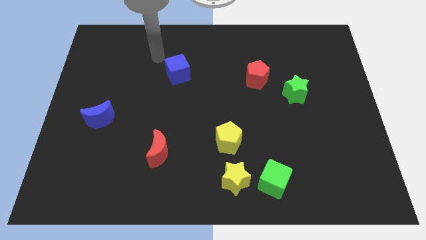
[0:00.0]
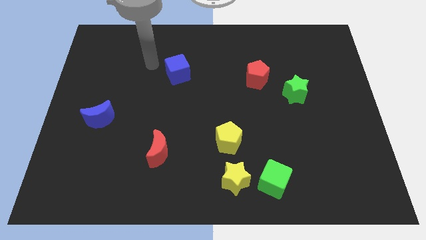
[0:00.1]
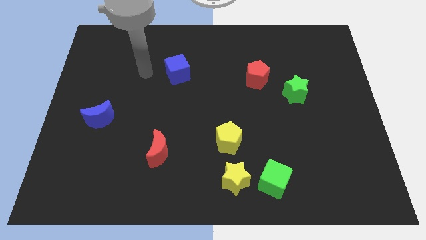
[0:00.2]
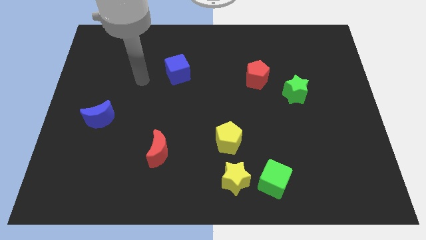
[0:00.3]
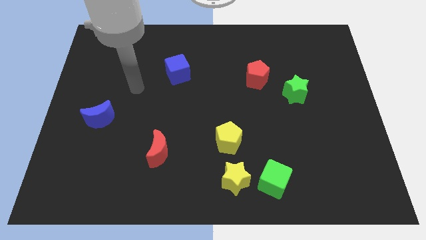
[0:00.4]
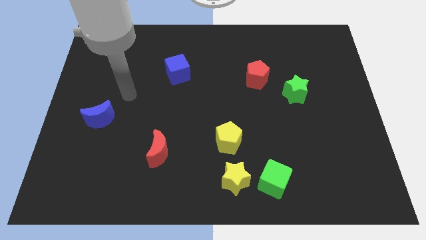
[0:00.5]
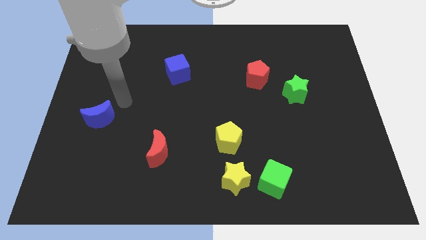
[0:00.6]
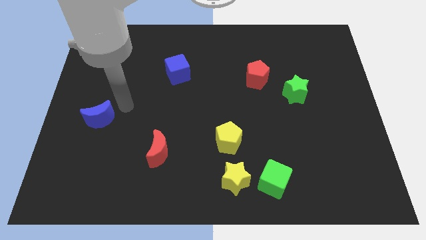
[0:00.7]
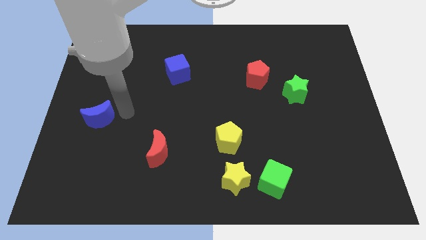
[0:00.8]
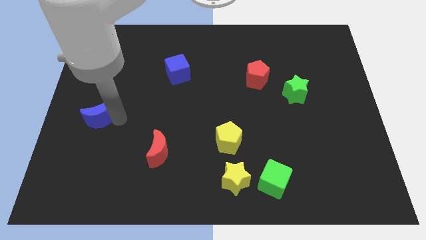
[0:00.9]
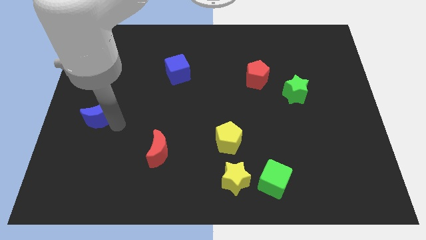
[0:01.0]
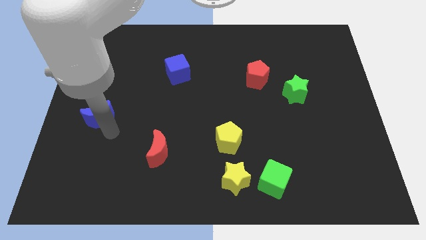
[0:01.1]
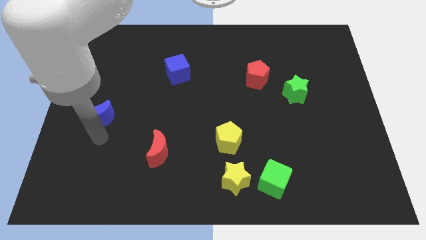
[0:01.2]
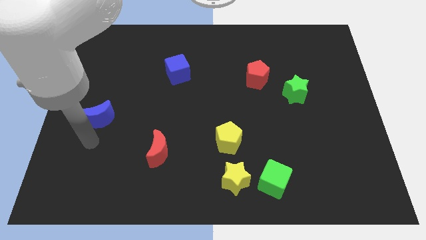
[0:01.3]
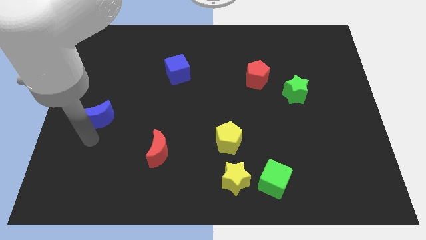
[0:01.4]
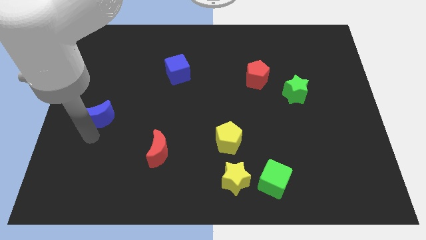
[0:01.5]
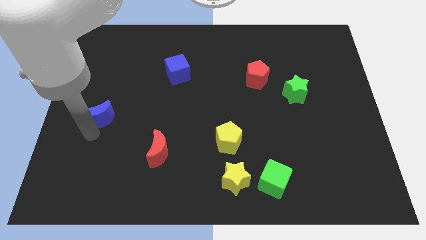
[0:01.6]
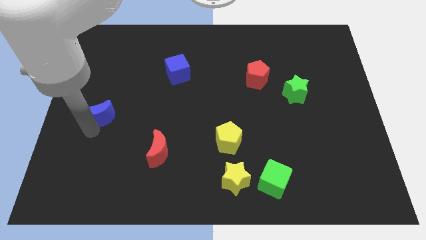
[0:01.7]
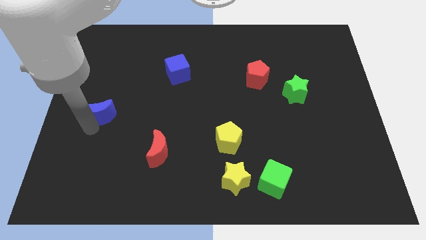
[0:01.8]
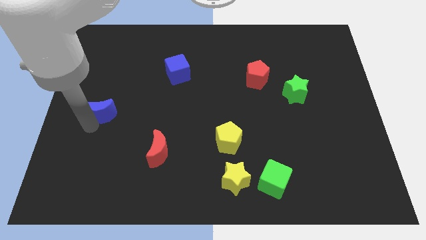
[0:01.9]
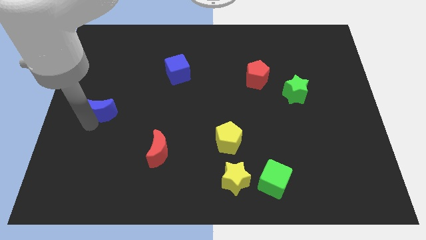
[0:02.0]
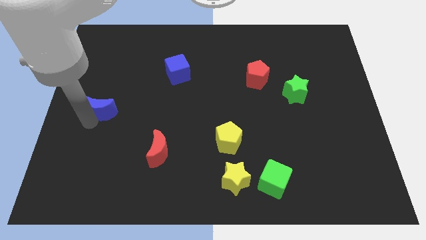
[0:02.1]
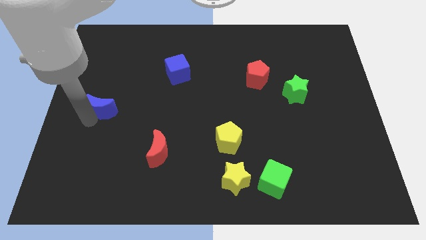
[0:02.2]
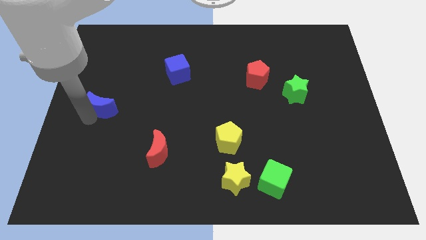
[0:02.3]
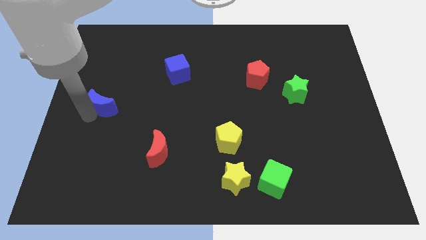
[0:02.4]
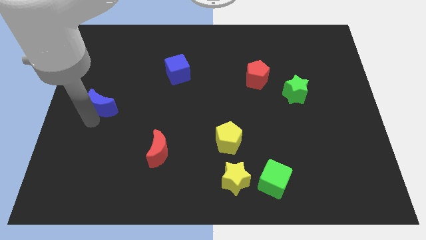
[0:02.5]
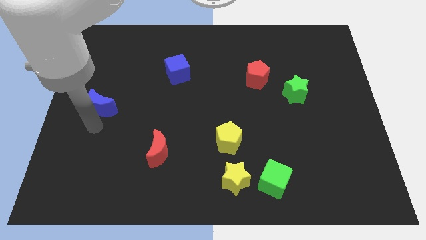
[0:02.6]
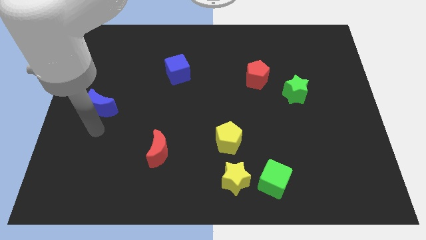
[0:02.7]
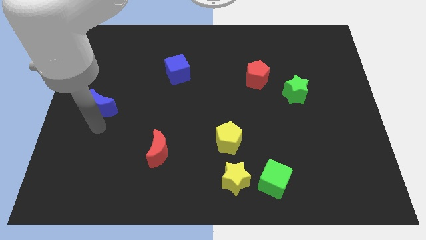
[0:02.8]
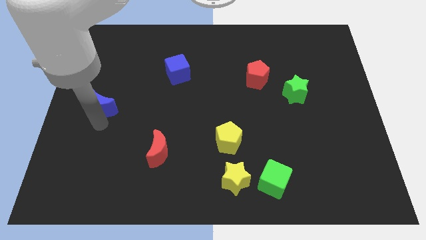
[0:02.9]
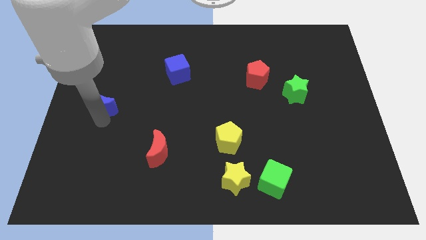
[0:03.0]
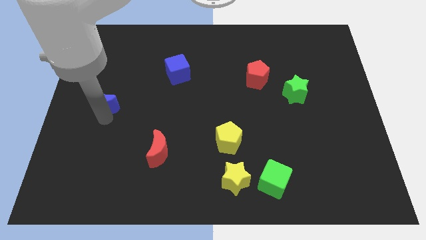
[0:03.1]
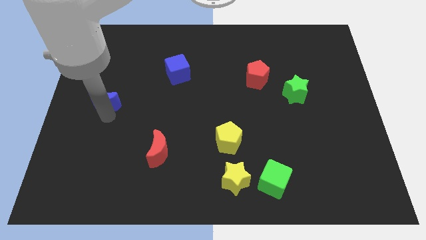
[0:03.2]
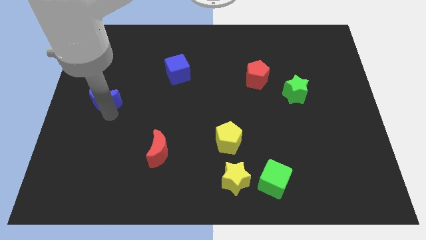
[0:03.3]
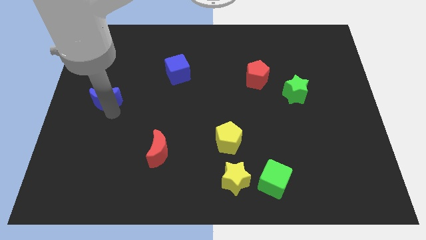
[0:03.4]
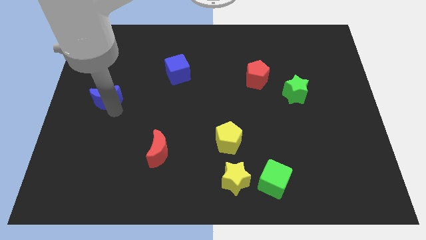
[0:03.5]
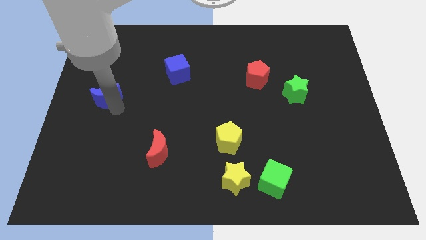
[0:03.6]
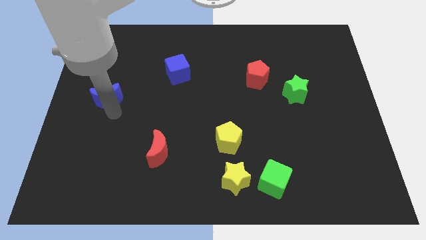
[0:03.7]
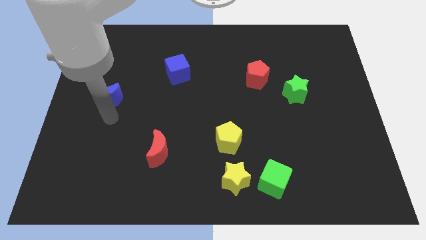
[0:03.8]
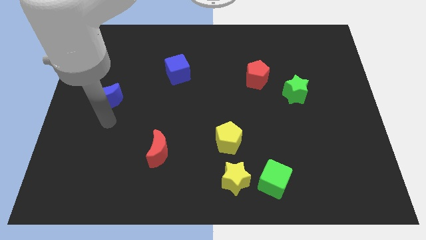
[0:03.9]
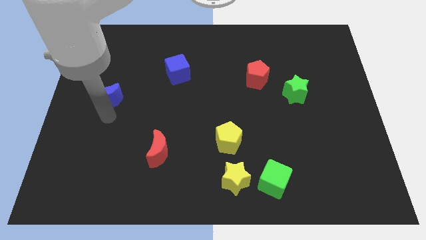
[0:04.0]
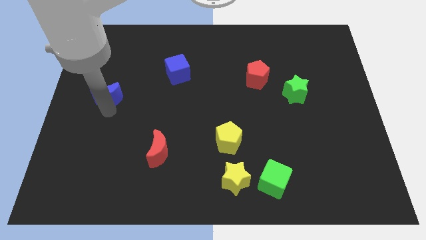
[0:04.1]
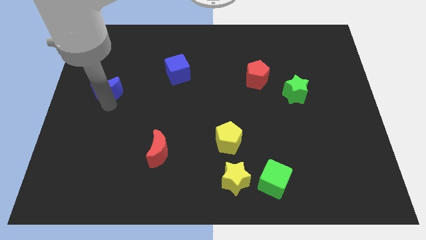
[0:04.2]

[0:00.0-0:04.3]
slightly move the blue moon up

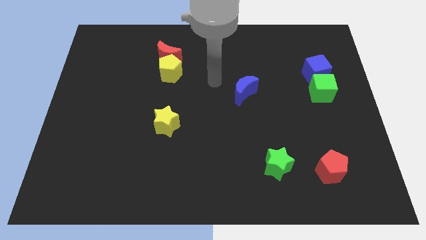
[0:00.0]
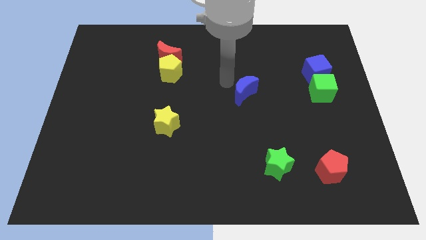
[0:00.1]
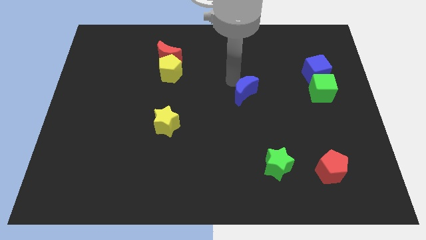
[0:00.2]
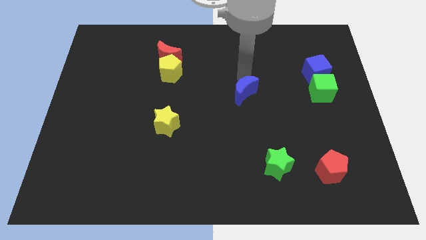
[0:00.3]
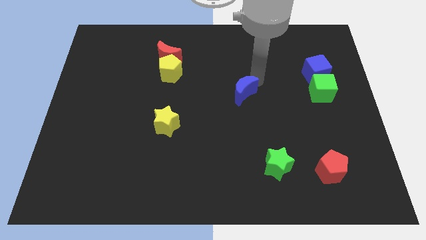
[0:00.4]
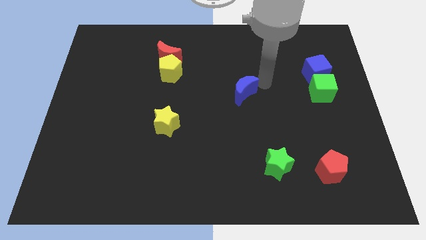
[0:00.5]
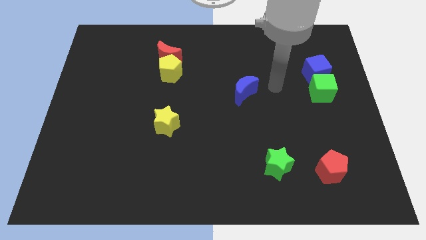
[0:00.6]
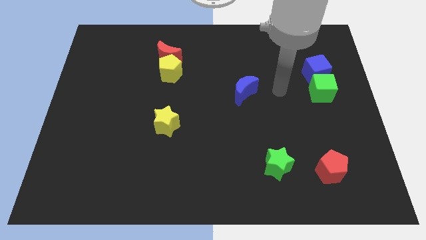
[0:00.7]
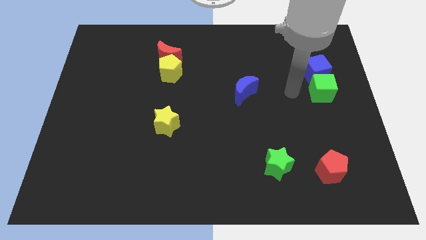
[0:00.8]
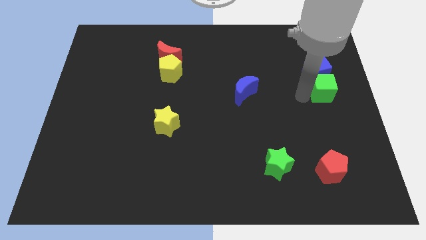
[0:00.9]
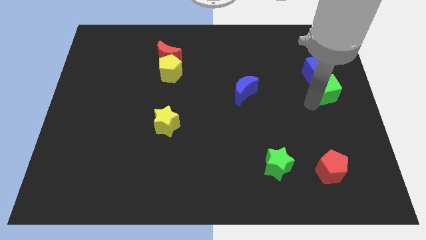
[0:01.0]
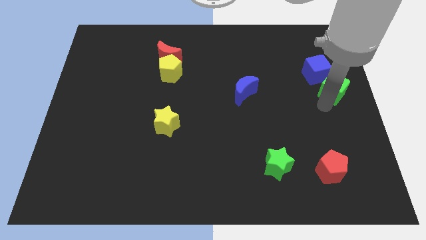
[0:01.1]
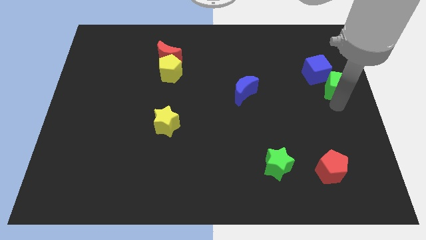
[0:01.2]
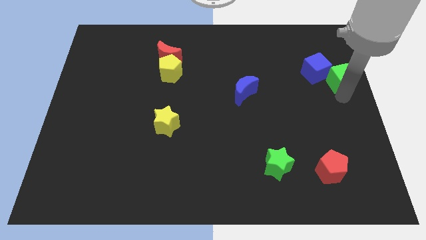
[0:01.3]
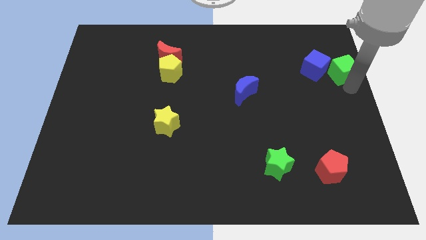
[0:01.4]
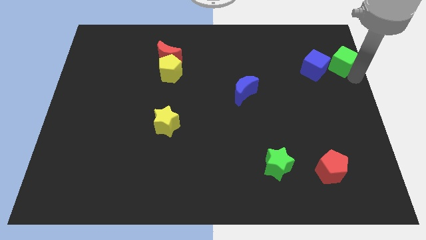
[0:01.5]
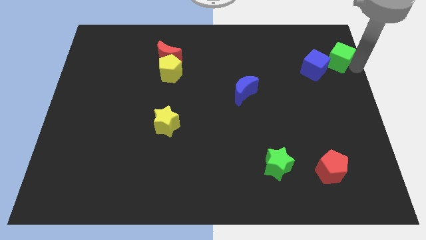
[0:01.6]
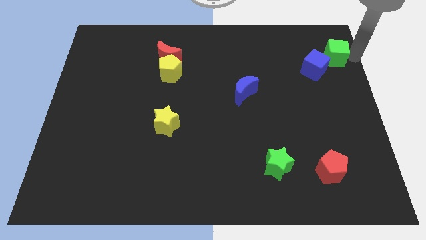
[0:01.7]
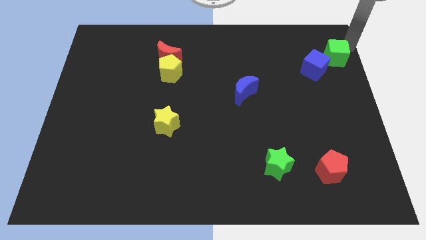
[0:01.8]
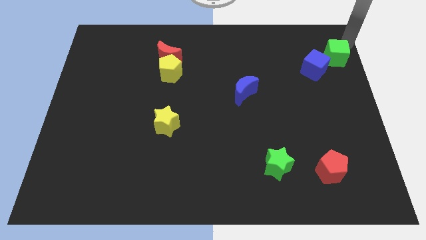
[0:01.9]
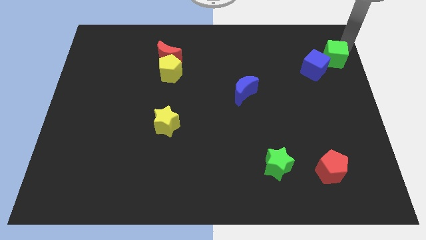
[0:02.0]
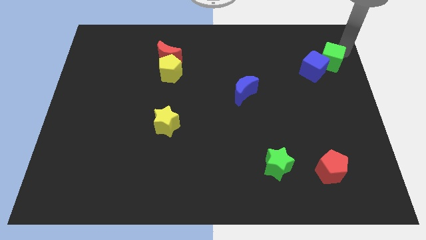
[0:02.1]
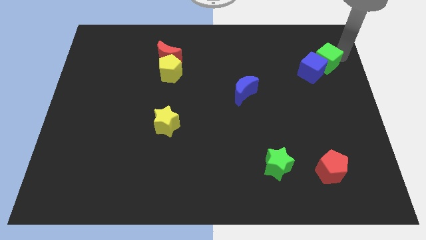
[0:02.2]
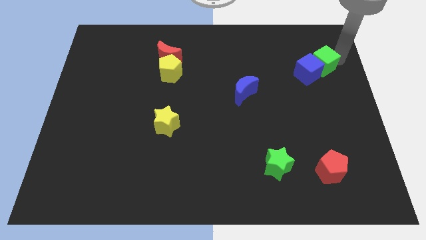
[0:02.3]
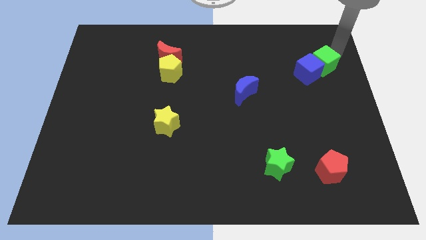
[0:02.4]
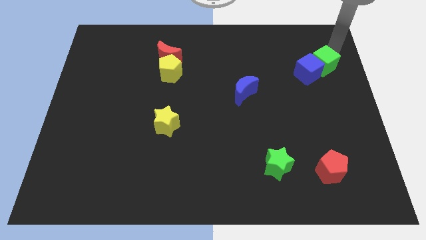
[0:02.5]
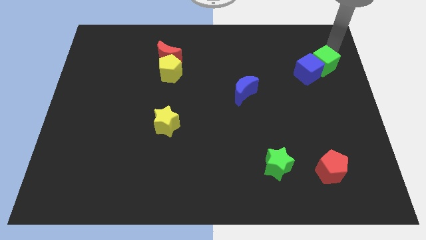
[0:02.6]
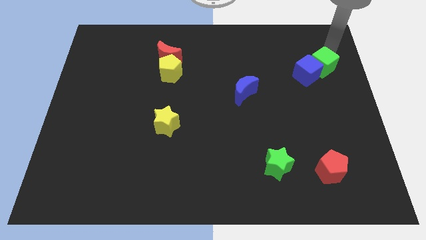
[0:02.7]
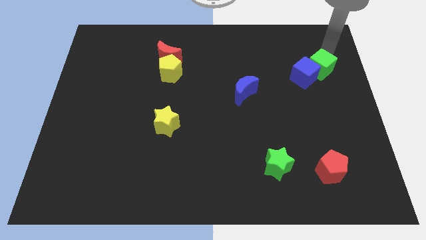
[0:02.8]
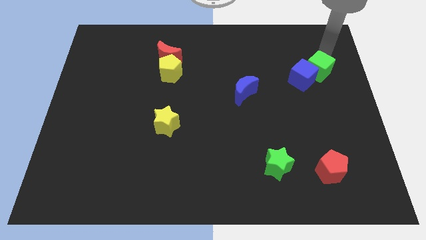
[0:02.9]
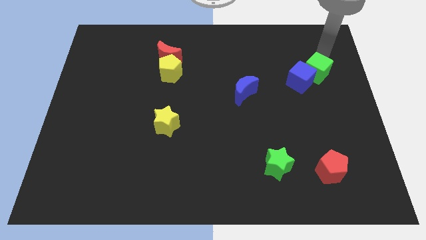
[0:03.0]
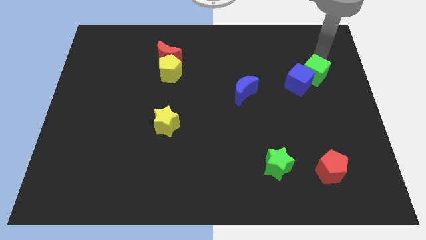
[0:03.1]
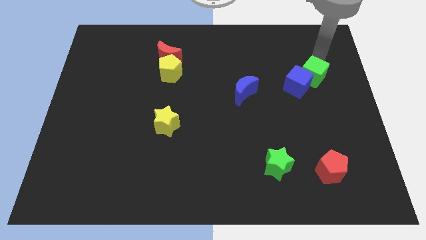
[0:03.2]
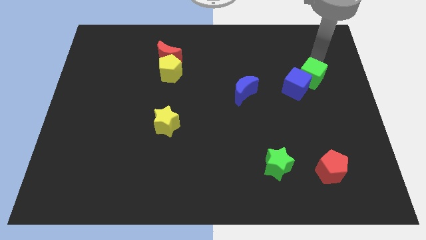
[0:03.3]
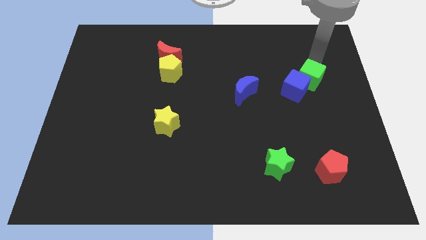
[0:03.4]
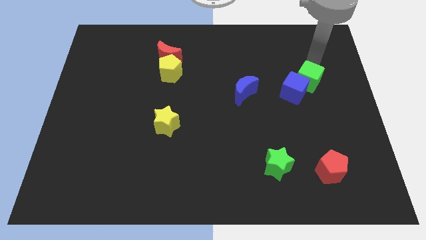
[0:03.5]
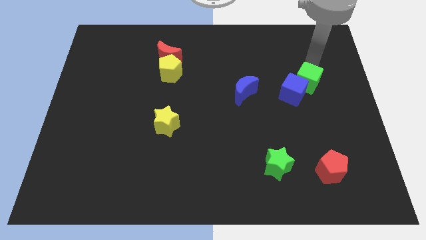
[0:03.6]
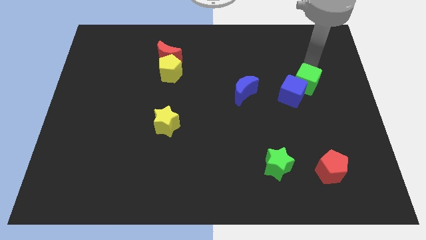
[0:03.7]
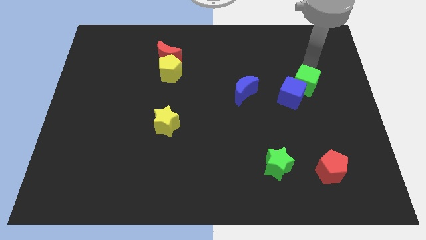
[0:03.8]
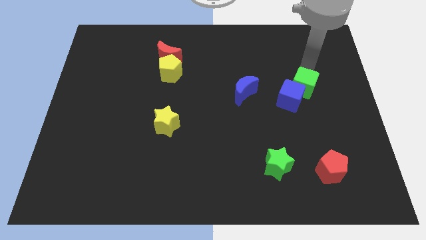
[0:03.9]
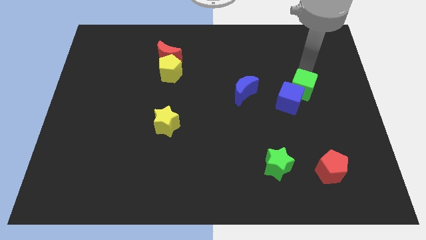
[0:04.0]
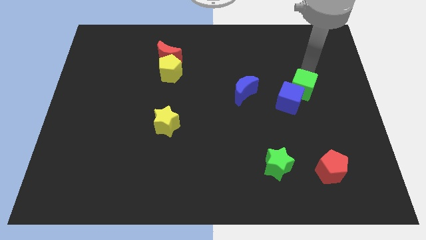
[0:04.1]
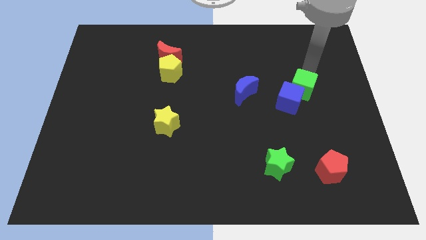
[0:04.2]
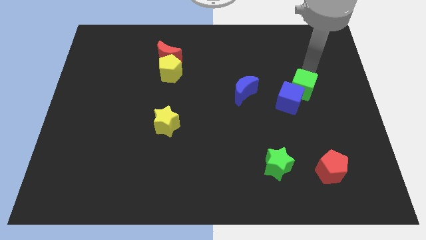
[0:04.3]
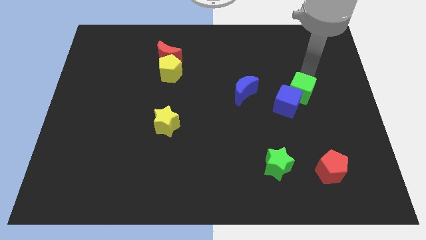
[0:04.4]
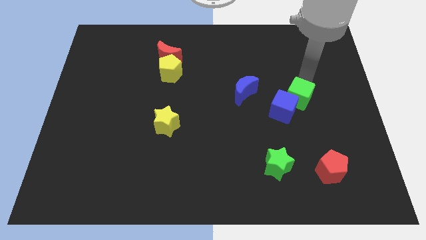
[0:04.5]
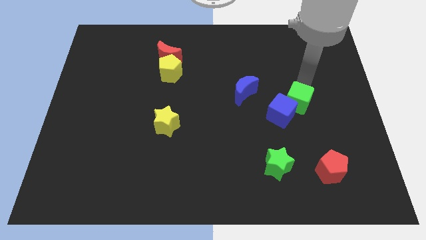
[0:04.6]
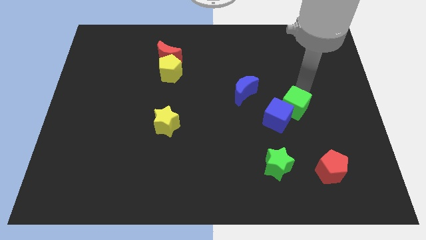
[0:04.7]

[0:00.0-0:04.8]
slightly slide the green cube diagonally downwards and left
